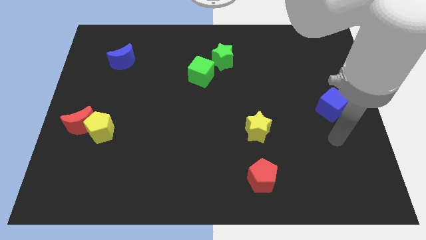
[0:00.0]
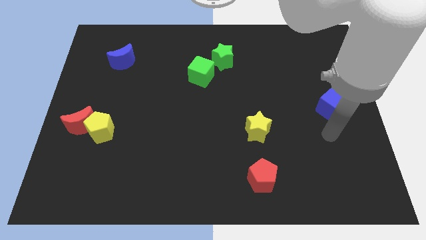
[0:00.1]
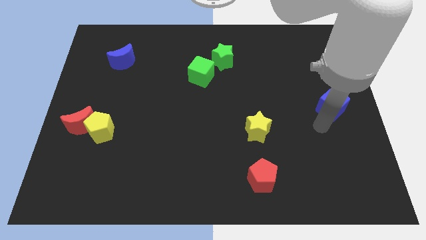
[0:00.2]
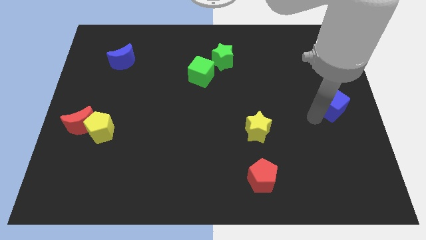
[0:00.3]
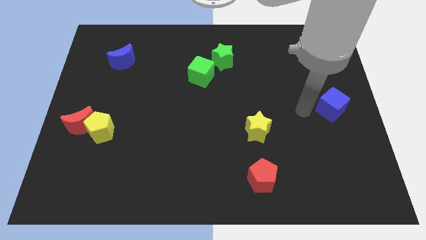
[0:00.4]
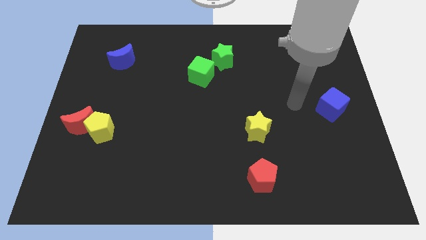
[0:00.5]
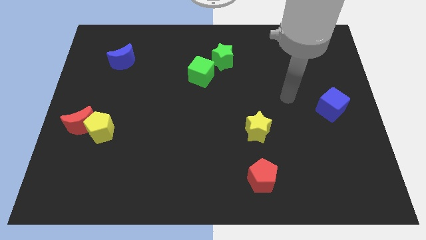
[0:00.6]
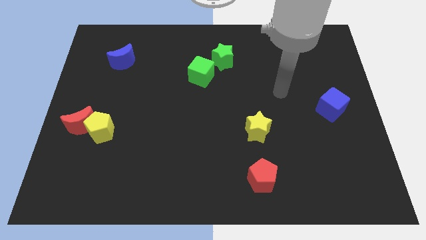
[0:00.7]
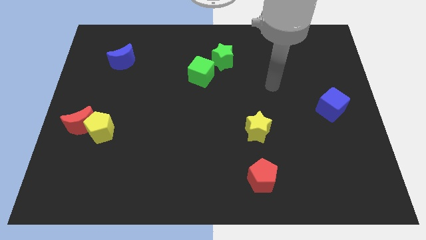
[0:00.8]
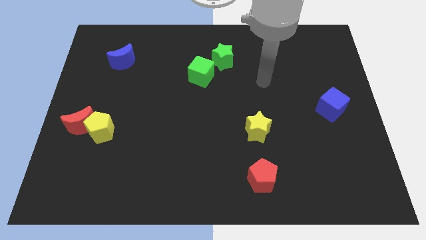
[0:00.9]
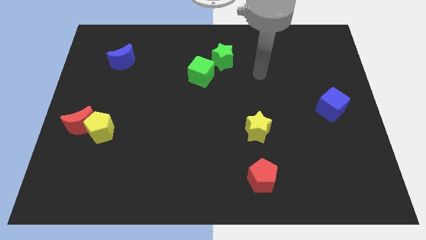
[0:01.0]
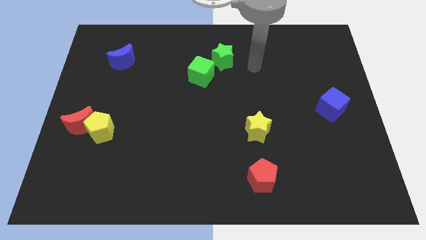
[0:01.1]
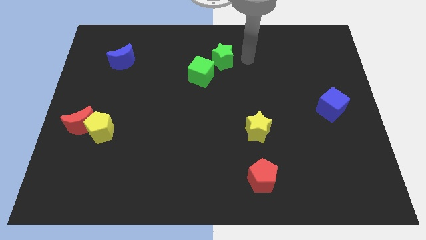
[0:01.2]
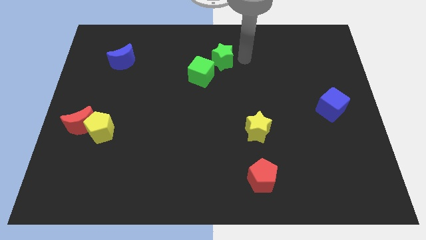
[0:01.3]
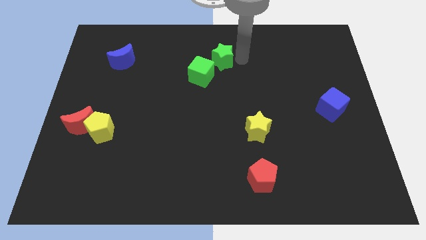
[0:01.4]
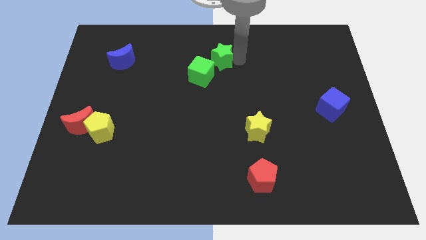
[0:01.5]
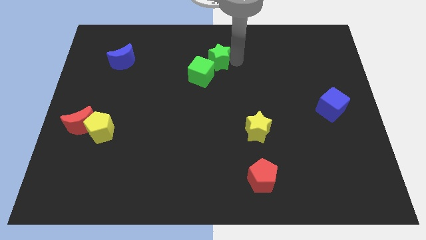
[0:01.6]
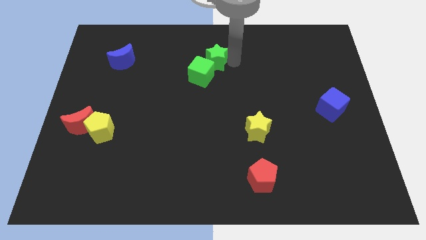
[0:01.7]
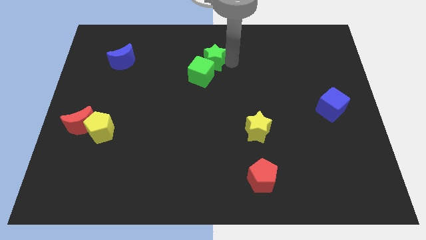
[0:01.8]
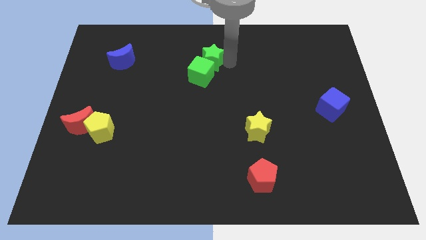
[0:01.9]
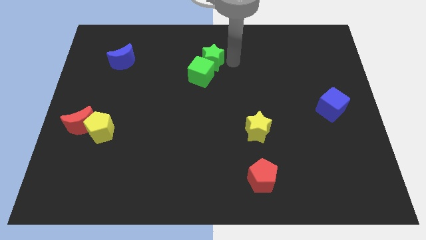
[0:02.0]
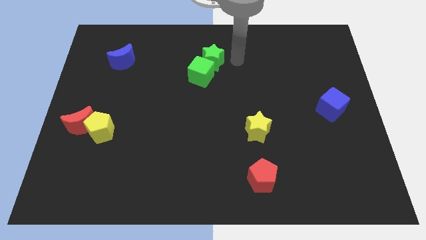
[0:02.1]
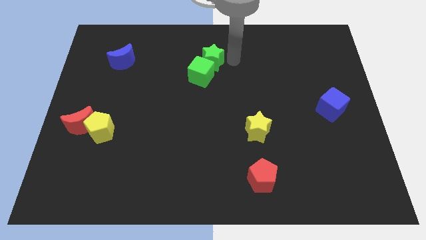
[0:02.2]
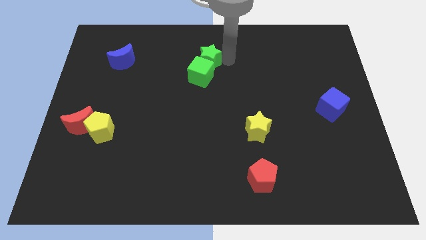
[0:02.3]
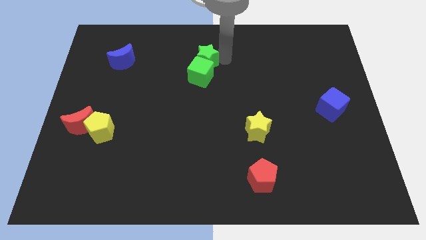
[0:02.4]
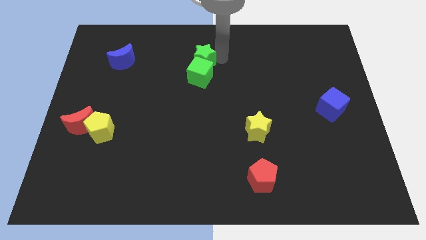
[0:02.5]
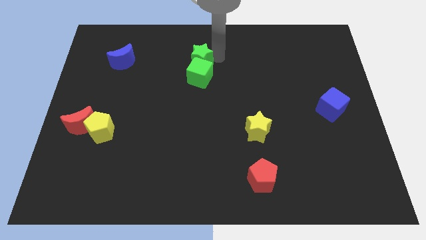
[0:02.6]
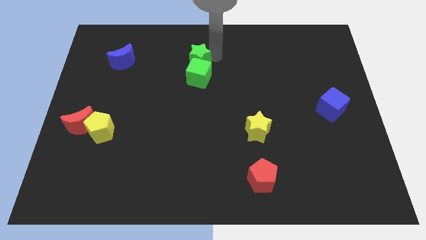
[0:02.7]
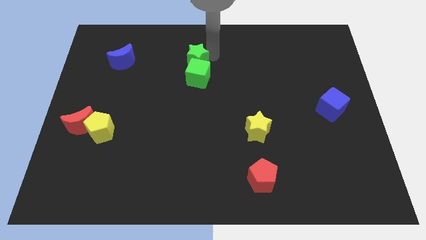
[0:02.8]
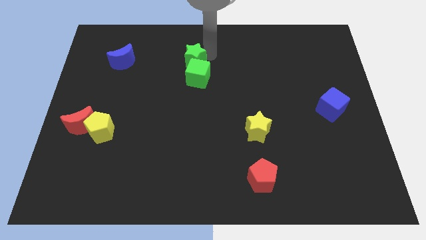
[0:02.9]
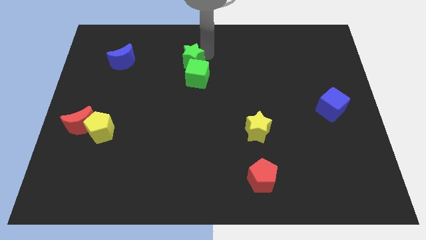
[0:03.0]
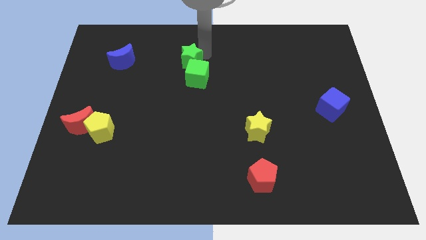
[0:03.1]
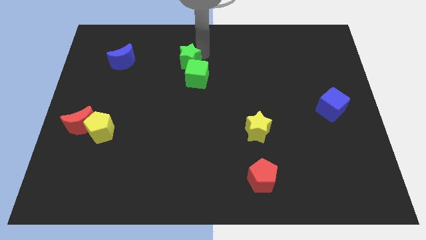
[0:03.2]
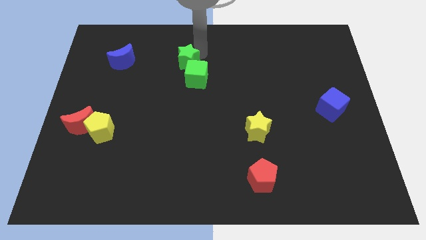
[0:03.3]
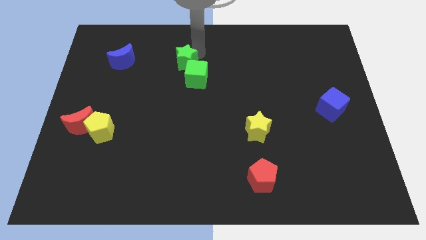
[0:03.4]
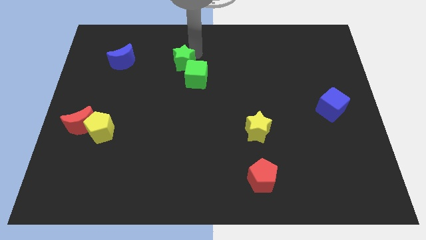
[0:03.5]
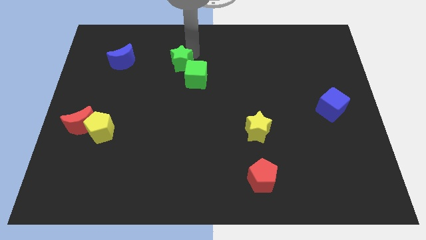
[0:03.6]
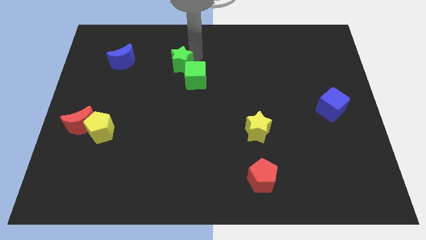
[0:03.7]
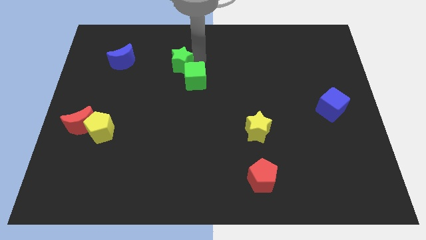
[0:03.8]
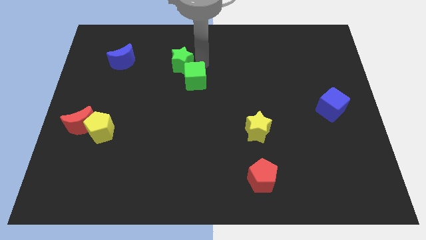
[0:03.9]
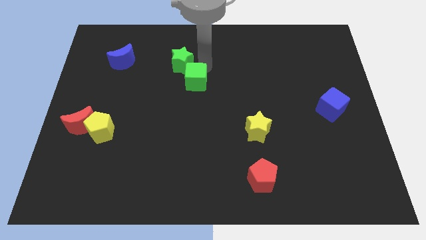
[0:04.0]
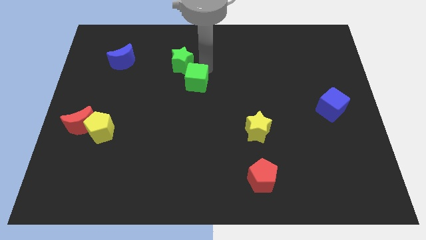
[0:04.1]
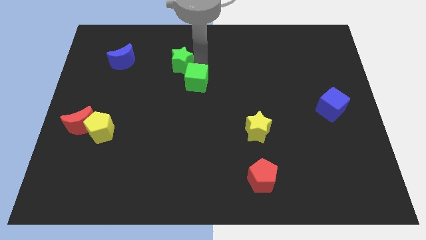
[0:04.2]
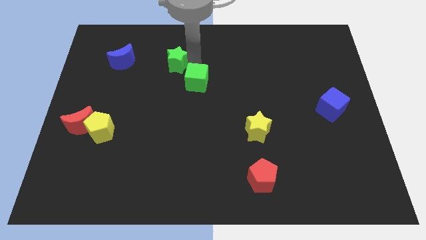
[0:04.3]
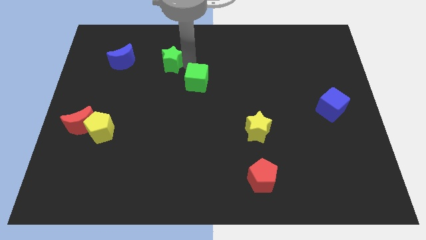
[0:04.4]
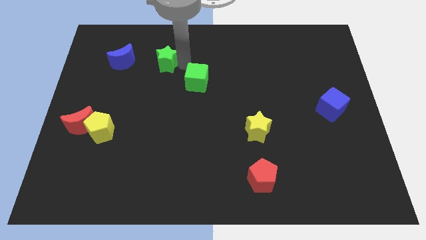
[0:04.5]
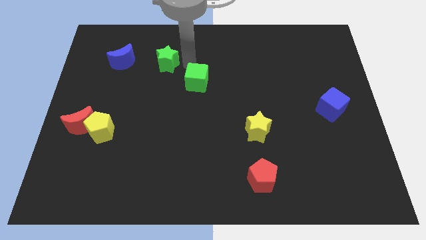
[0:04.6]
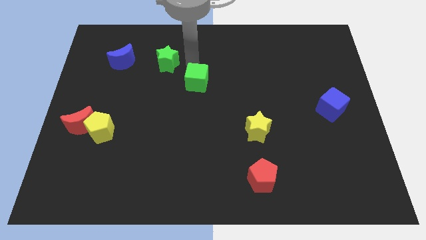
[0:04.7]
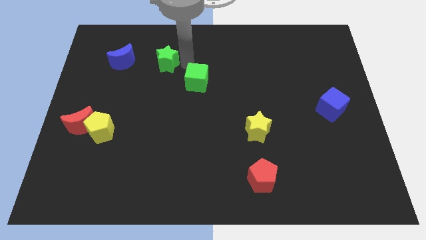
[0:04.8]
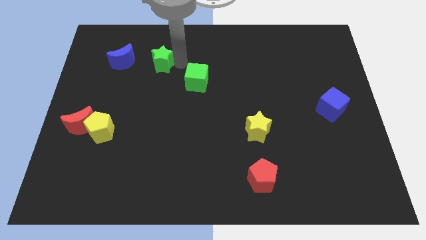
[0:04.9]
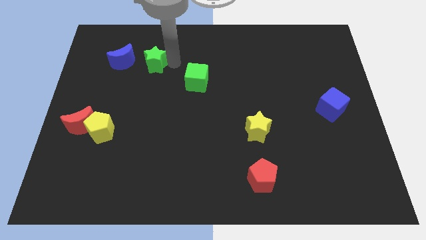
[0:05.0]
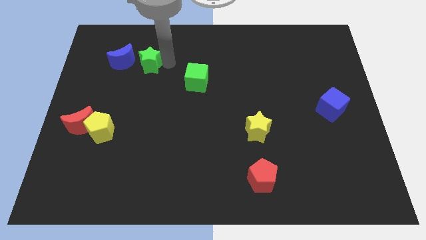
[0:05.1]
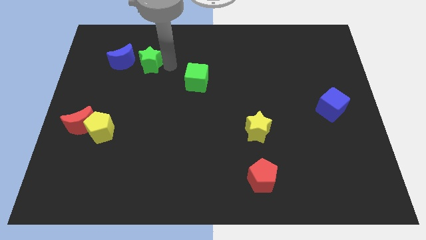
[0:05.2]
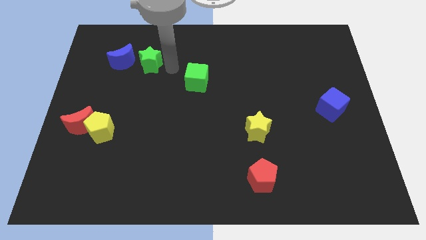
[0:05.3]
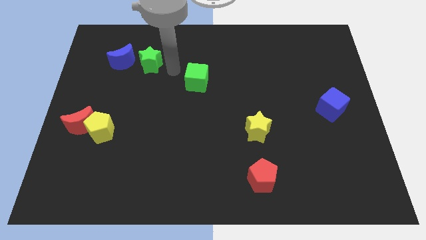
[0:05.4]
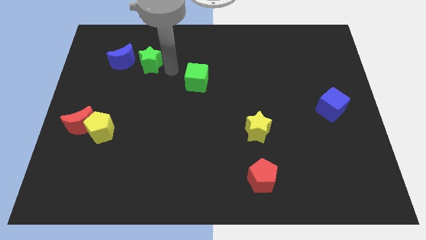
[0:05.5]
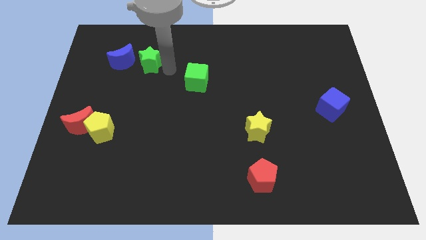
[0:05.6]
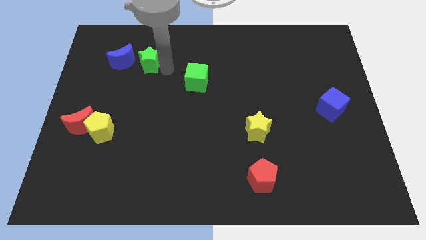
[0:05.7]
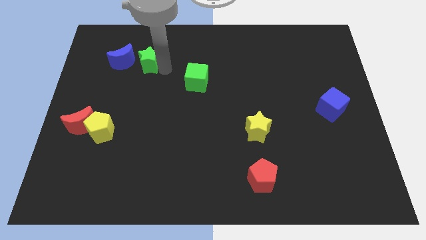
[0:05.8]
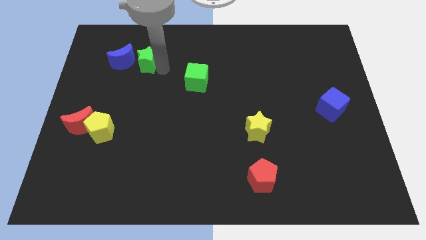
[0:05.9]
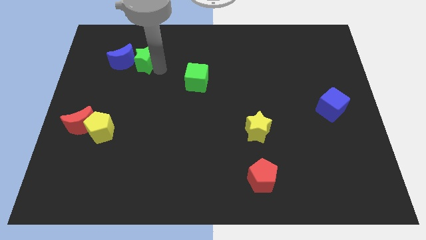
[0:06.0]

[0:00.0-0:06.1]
move the green star next to the blue moon

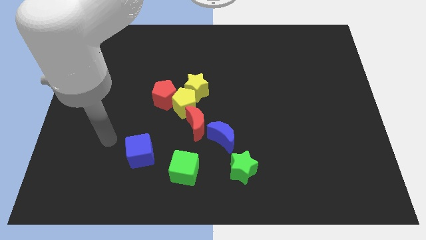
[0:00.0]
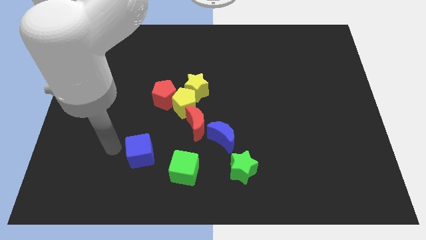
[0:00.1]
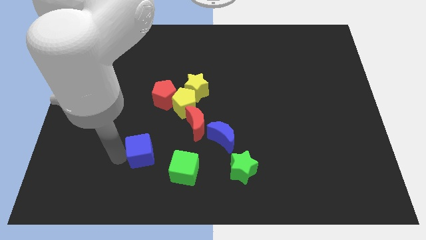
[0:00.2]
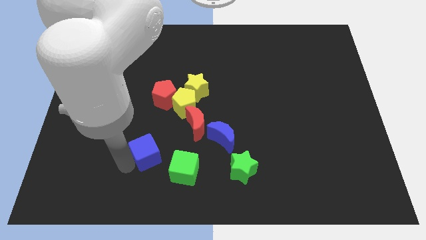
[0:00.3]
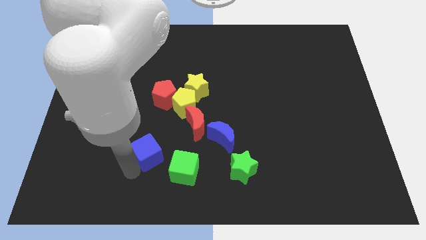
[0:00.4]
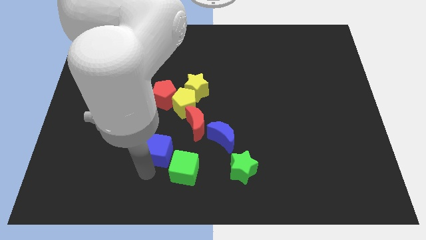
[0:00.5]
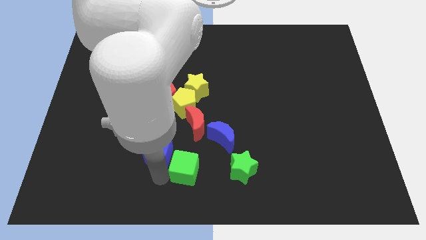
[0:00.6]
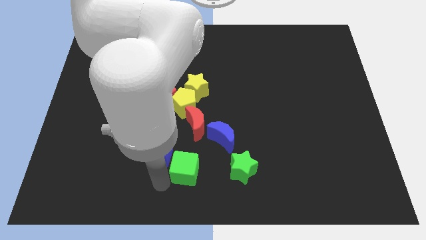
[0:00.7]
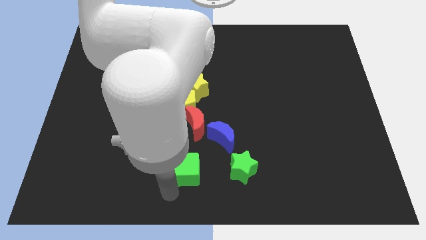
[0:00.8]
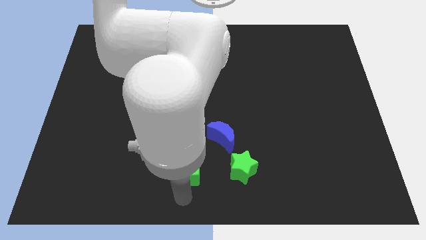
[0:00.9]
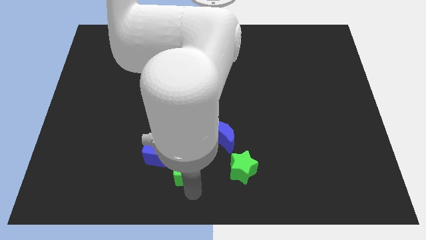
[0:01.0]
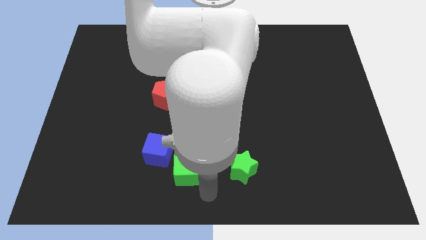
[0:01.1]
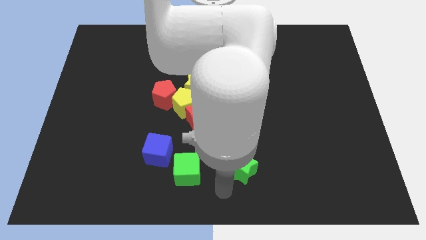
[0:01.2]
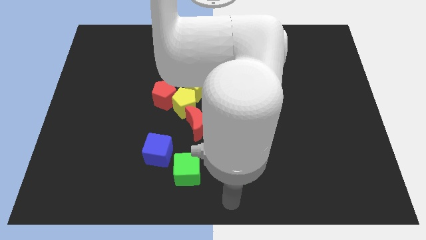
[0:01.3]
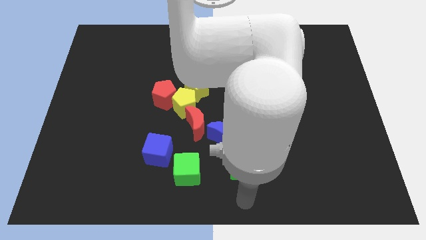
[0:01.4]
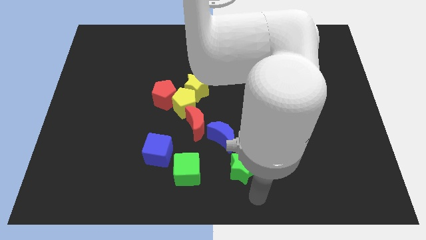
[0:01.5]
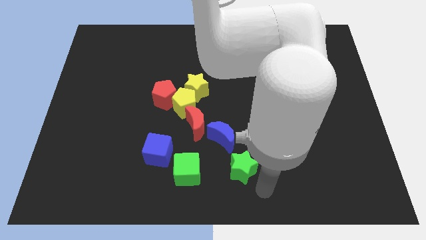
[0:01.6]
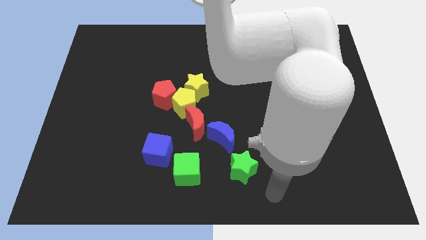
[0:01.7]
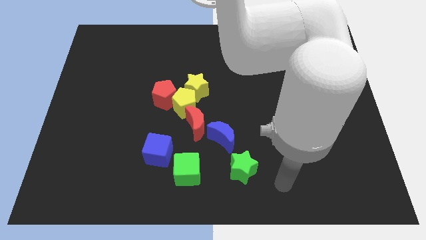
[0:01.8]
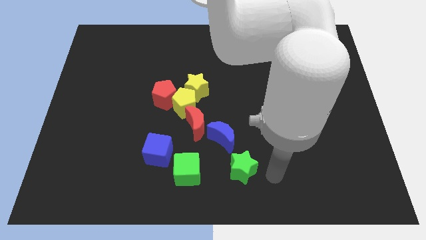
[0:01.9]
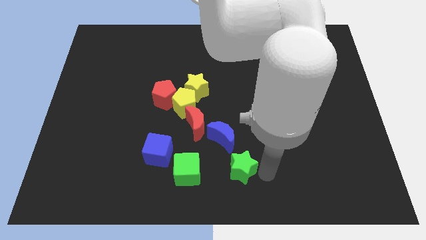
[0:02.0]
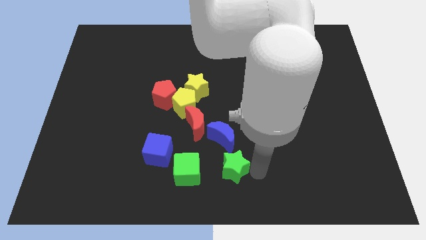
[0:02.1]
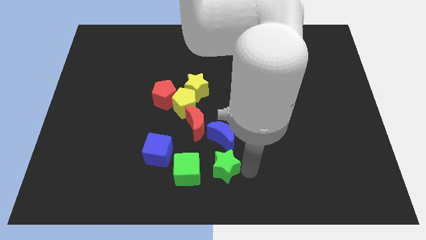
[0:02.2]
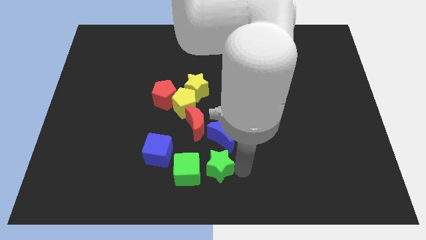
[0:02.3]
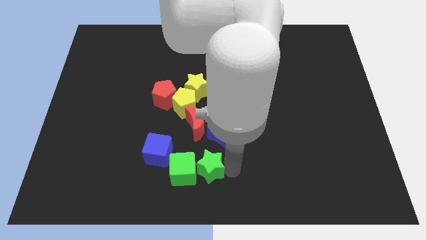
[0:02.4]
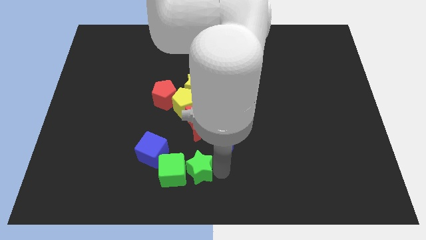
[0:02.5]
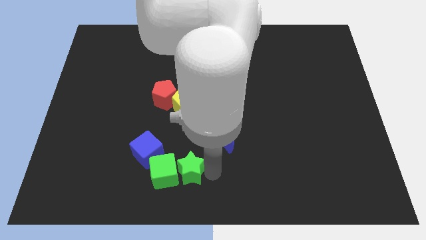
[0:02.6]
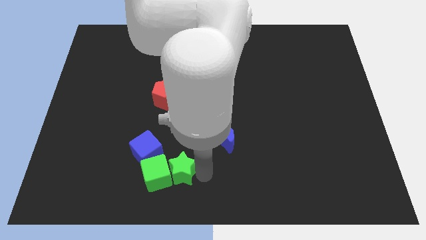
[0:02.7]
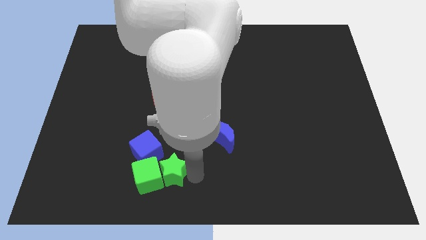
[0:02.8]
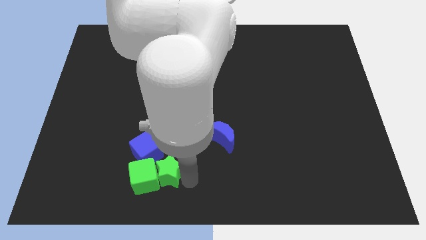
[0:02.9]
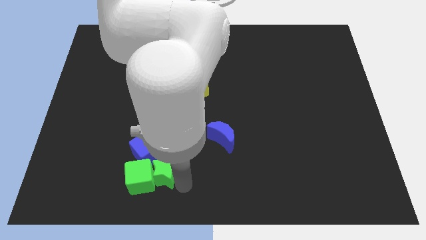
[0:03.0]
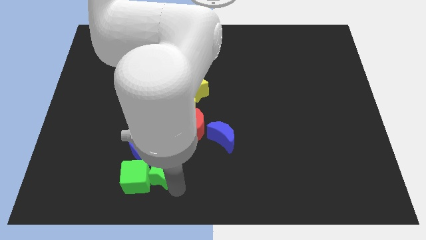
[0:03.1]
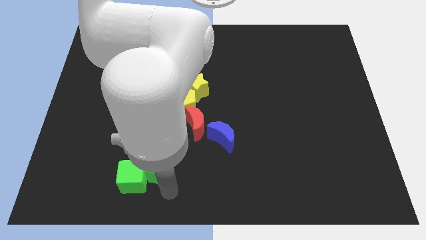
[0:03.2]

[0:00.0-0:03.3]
move the green star to the blue cube
